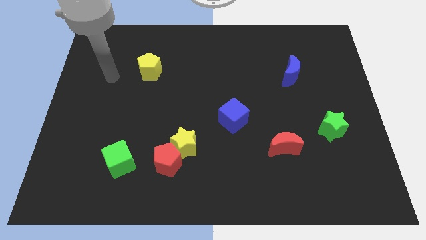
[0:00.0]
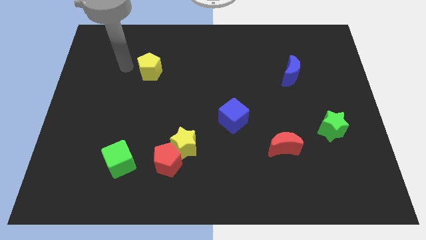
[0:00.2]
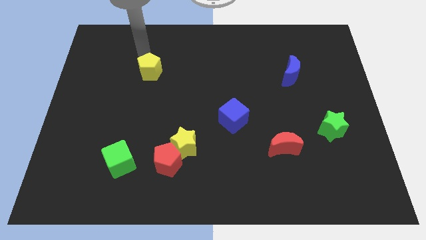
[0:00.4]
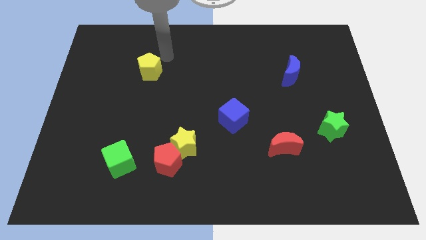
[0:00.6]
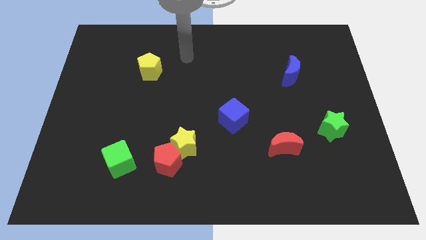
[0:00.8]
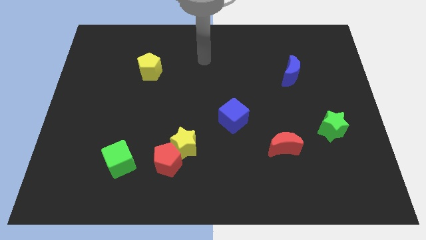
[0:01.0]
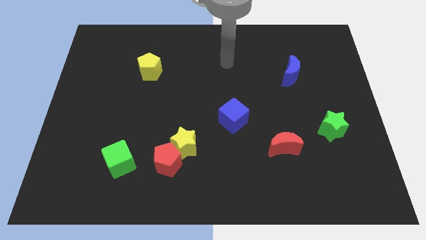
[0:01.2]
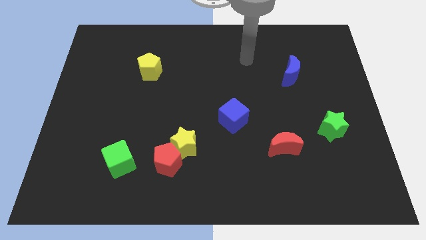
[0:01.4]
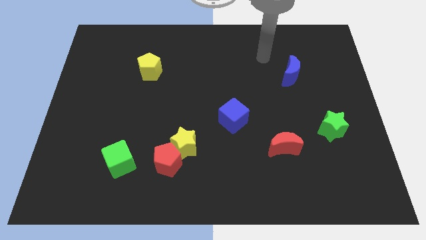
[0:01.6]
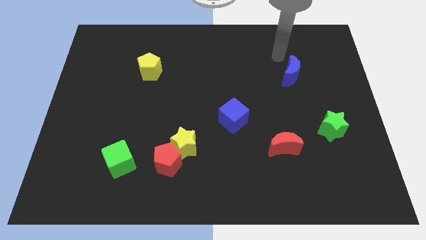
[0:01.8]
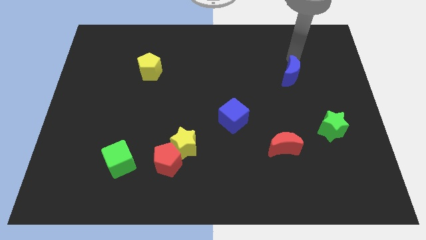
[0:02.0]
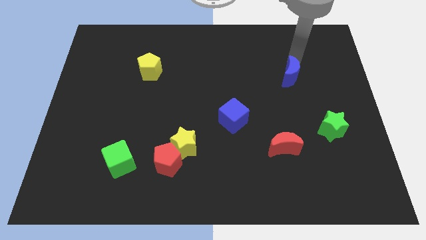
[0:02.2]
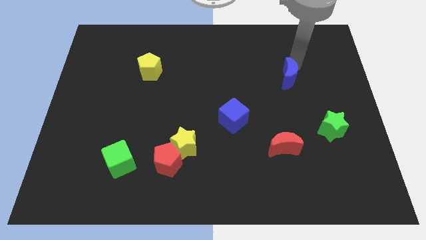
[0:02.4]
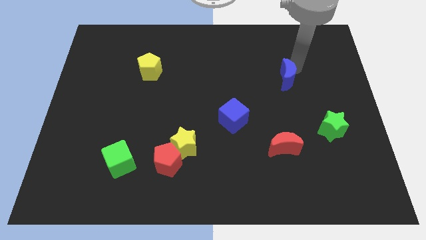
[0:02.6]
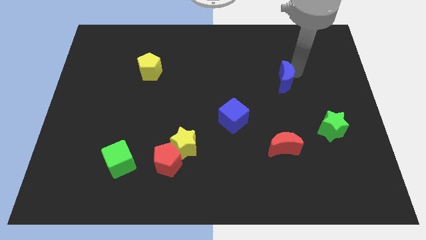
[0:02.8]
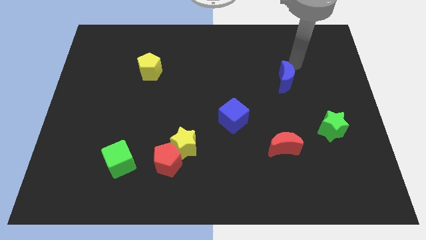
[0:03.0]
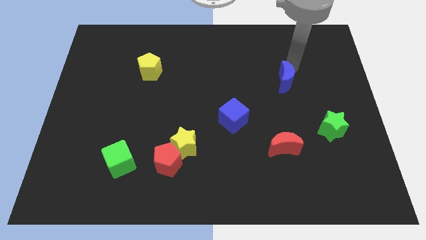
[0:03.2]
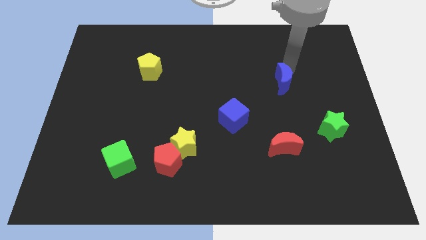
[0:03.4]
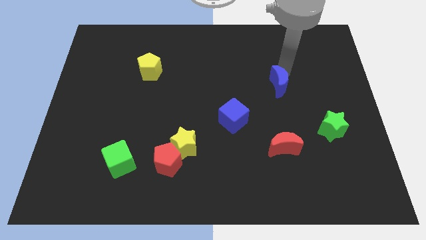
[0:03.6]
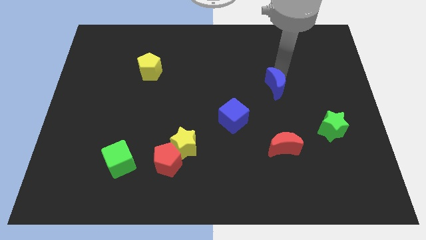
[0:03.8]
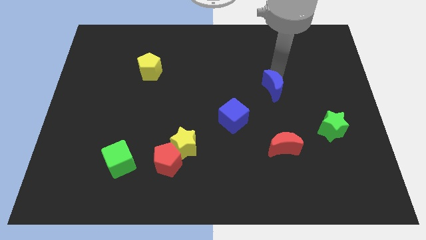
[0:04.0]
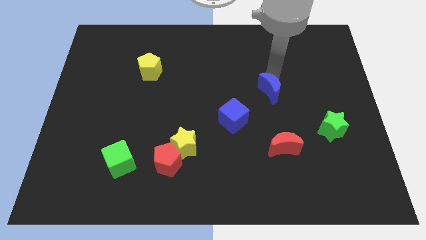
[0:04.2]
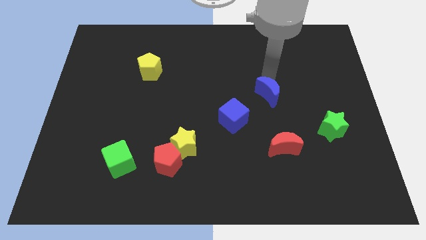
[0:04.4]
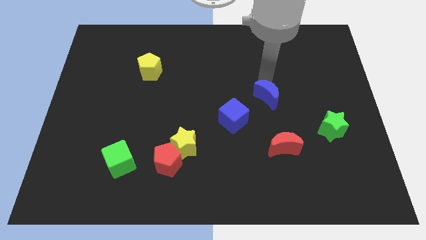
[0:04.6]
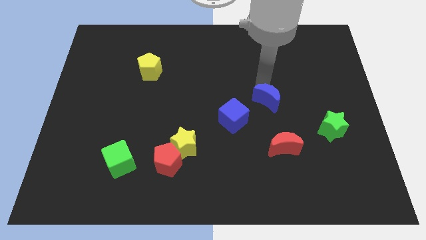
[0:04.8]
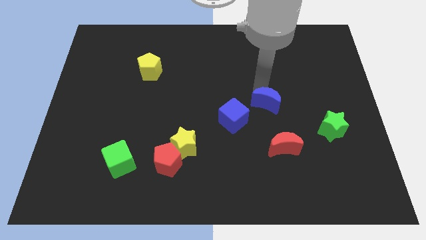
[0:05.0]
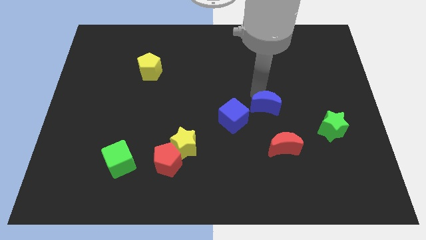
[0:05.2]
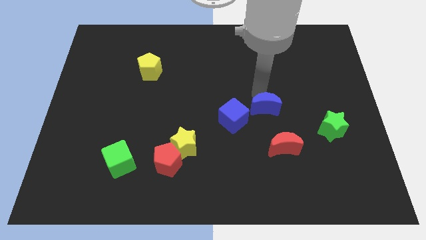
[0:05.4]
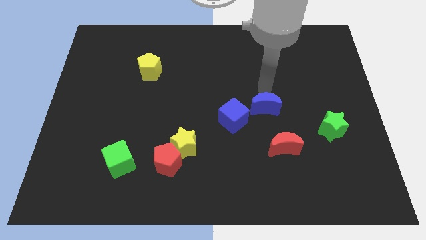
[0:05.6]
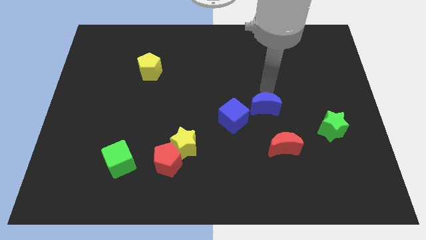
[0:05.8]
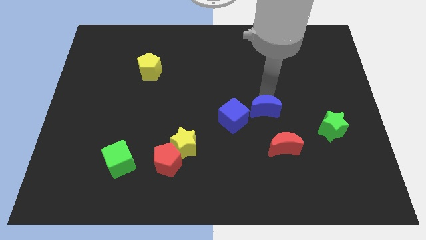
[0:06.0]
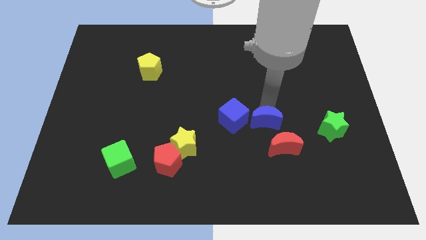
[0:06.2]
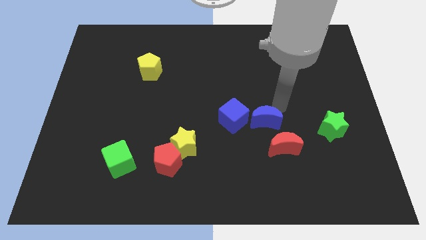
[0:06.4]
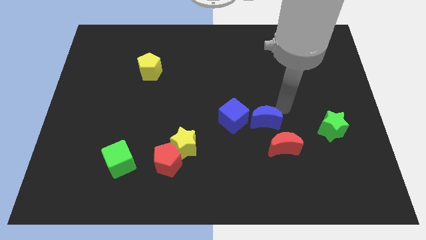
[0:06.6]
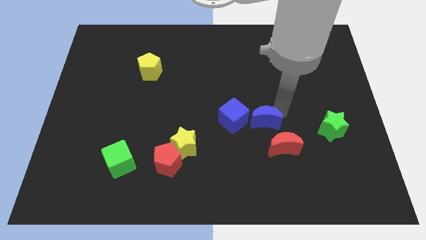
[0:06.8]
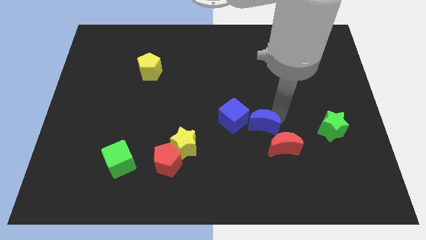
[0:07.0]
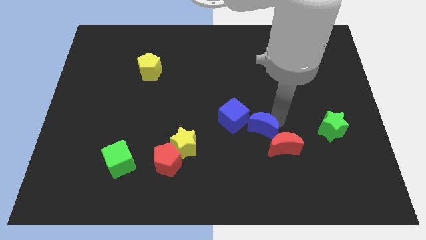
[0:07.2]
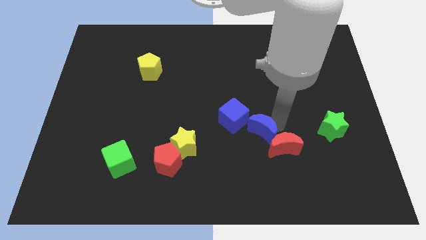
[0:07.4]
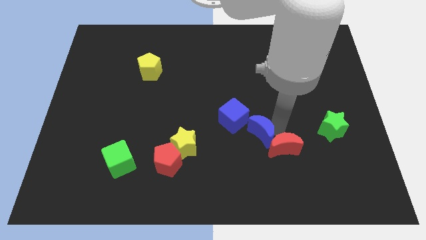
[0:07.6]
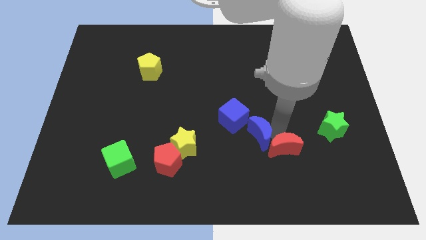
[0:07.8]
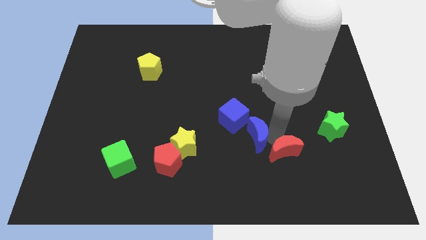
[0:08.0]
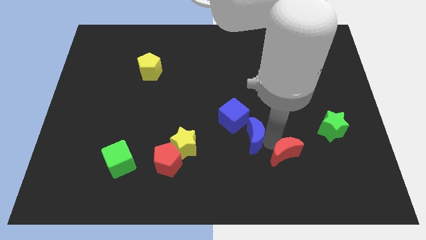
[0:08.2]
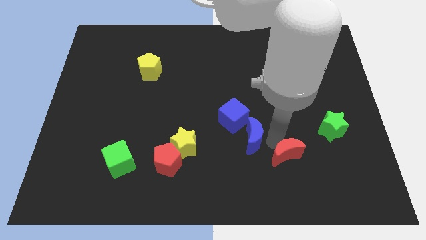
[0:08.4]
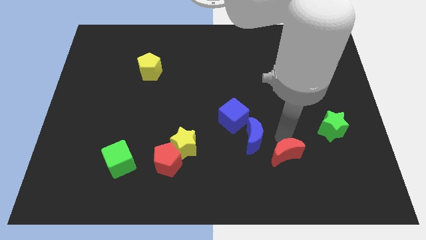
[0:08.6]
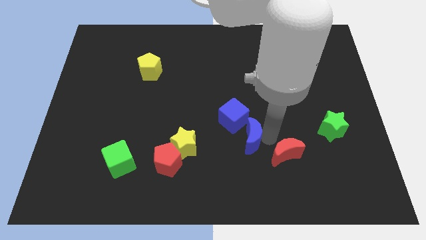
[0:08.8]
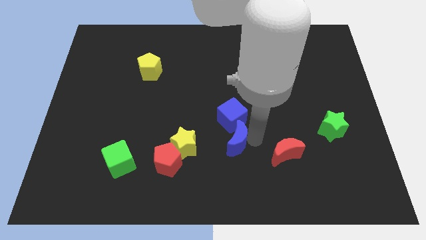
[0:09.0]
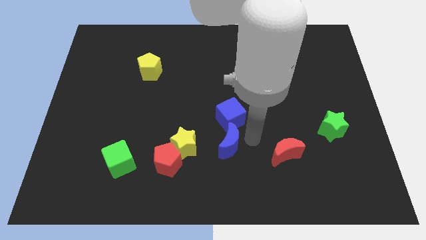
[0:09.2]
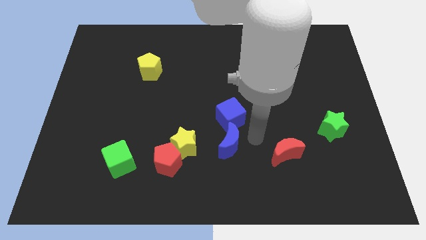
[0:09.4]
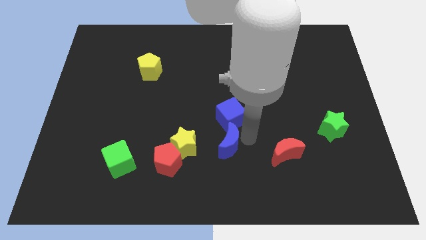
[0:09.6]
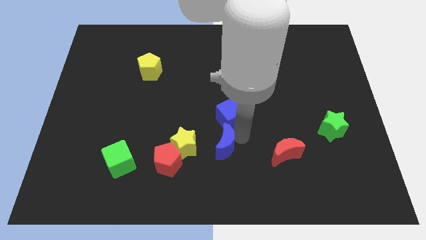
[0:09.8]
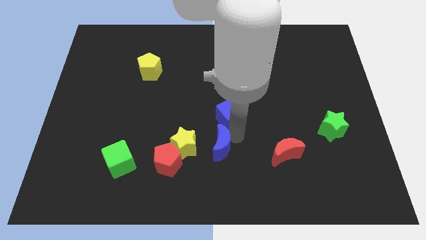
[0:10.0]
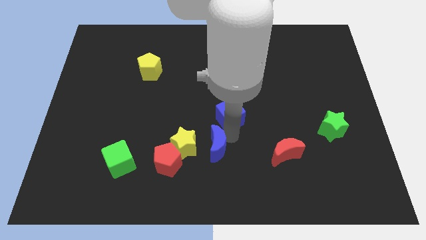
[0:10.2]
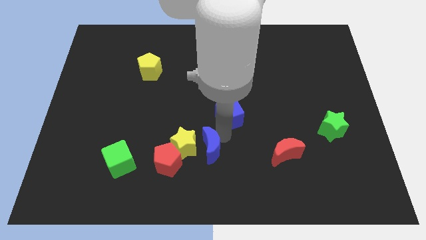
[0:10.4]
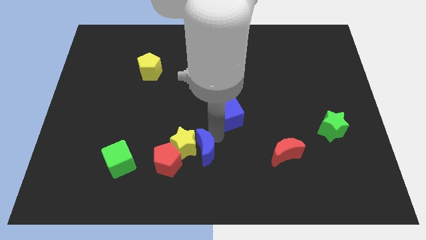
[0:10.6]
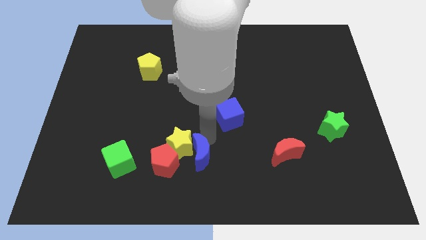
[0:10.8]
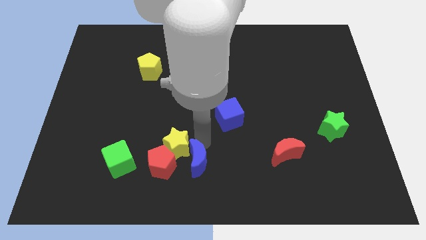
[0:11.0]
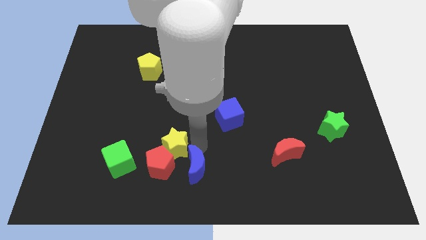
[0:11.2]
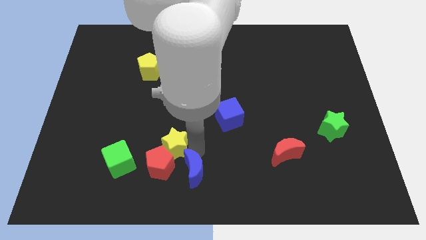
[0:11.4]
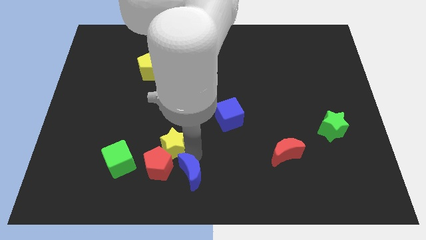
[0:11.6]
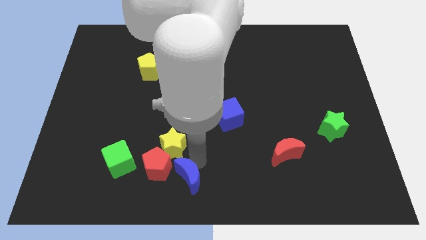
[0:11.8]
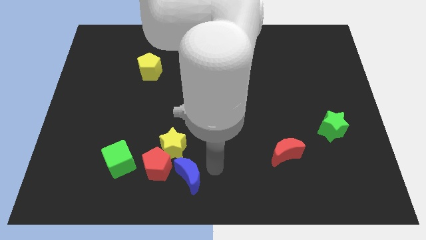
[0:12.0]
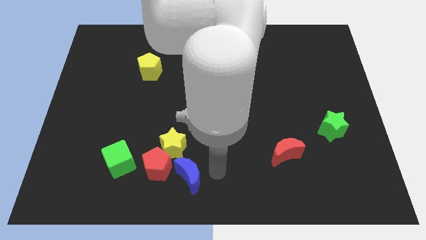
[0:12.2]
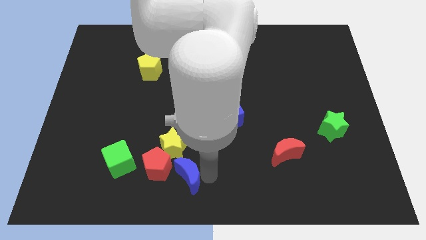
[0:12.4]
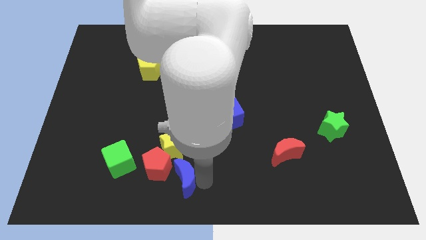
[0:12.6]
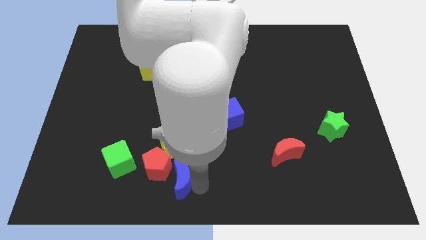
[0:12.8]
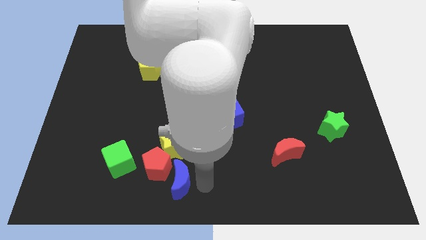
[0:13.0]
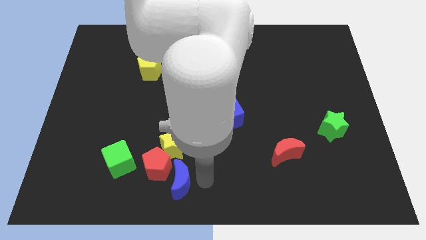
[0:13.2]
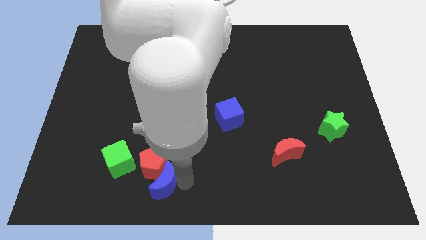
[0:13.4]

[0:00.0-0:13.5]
put the blue moon to the bottom right of the green cube
